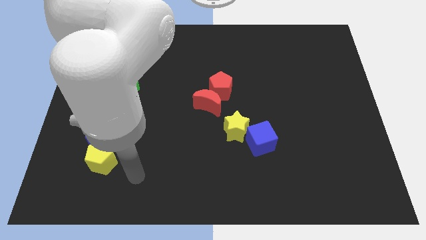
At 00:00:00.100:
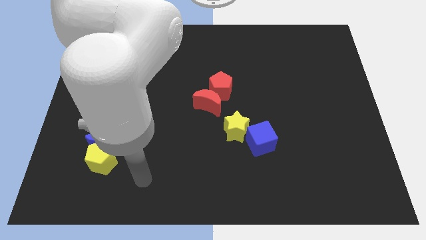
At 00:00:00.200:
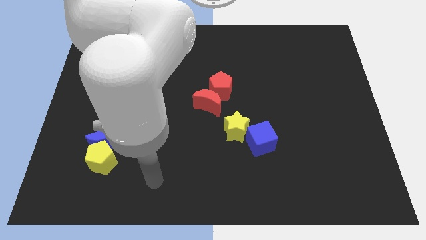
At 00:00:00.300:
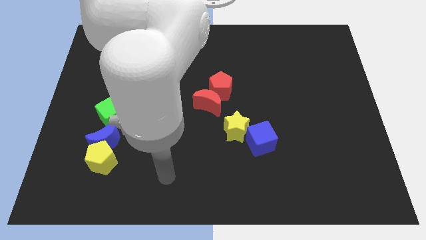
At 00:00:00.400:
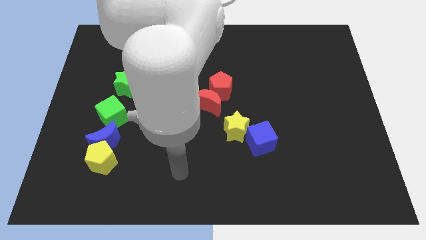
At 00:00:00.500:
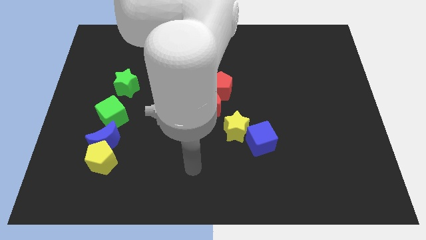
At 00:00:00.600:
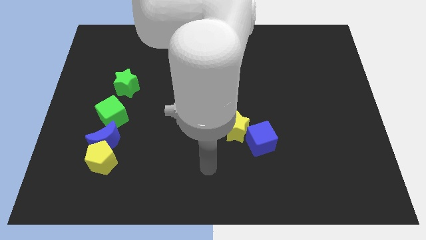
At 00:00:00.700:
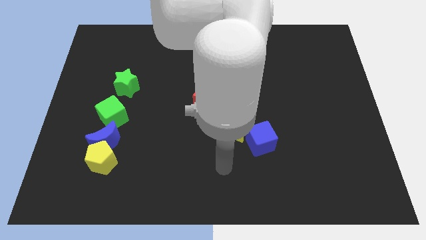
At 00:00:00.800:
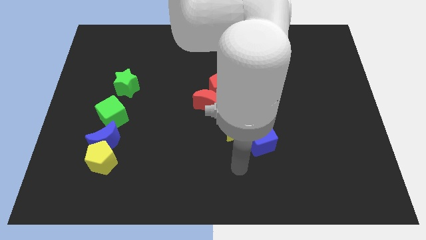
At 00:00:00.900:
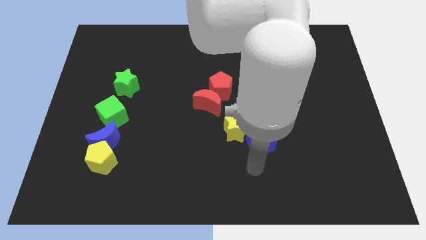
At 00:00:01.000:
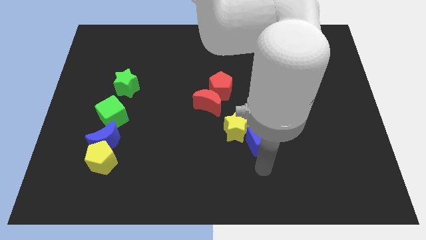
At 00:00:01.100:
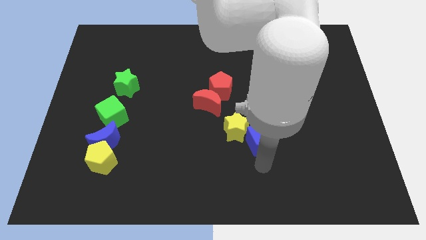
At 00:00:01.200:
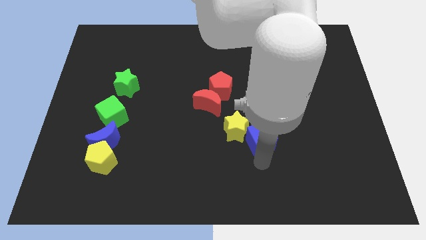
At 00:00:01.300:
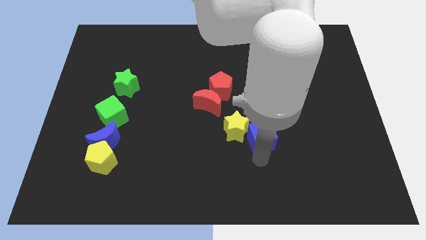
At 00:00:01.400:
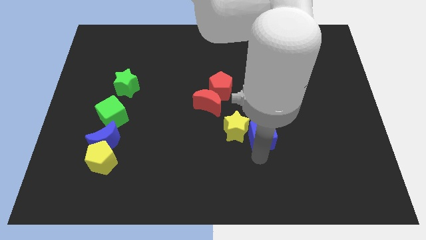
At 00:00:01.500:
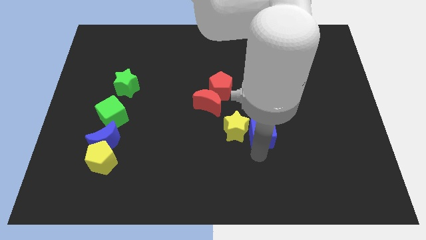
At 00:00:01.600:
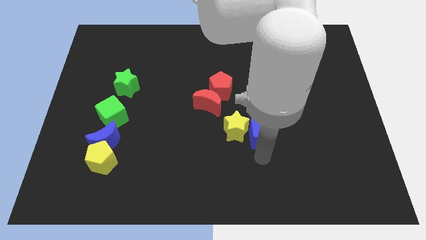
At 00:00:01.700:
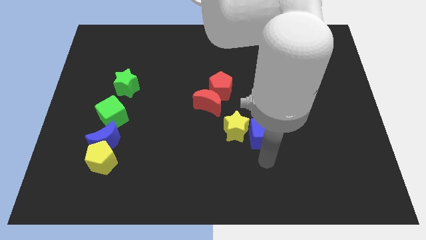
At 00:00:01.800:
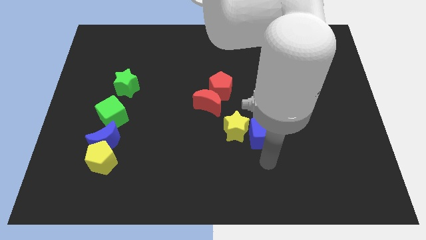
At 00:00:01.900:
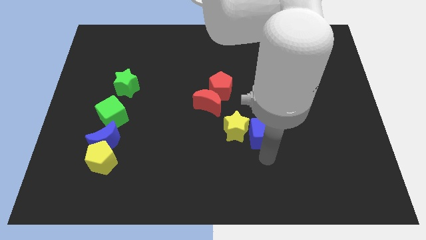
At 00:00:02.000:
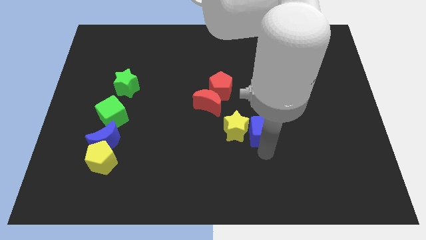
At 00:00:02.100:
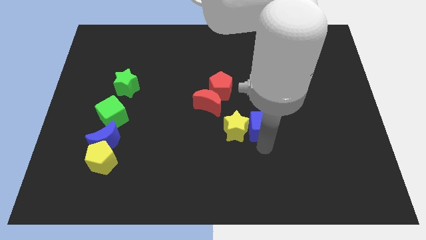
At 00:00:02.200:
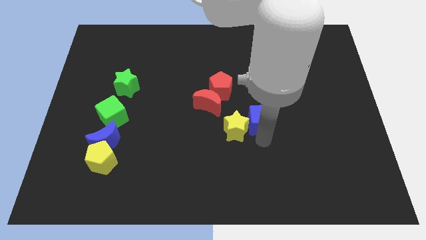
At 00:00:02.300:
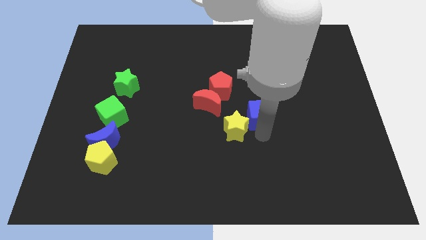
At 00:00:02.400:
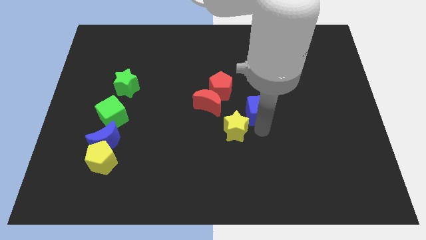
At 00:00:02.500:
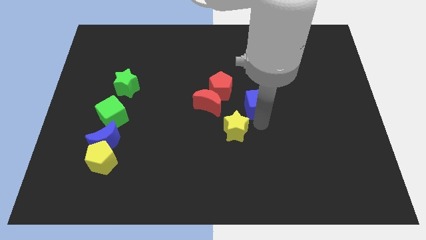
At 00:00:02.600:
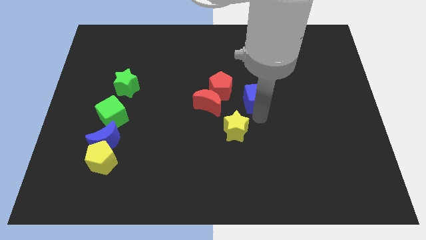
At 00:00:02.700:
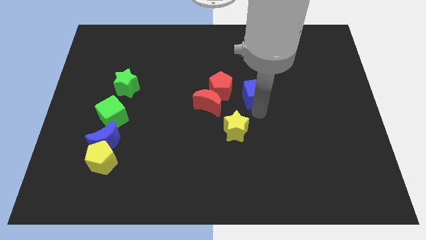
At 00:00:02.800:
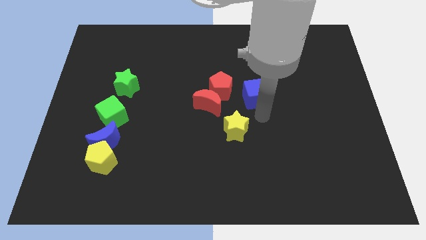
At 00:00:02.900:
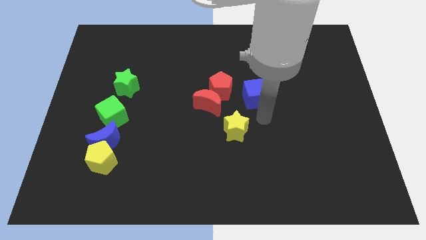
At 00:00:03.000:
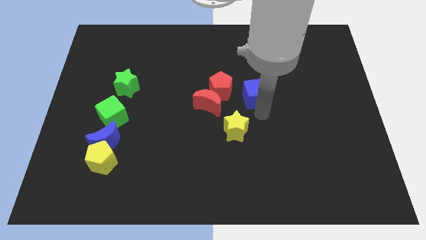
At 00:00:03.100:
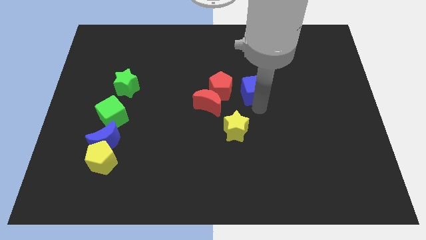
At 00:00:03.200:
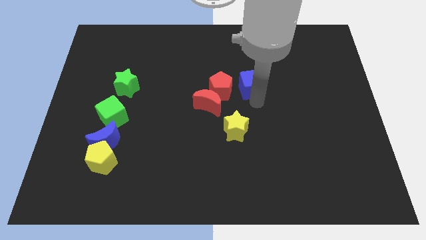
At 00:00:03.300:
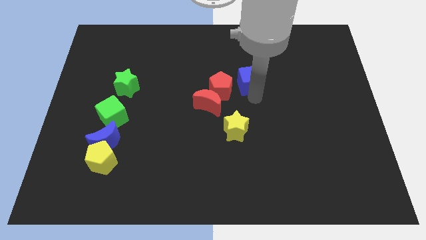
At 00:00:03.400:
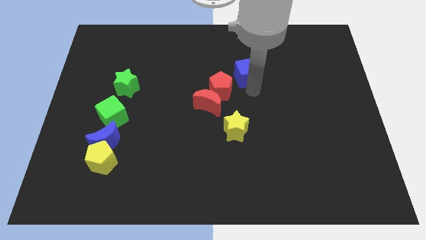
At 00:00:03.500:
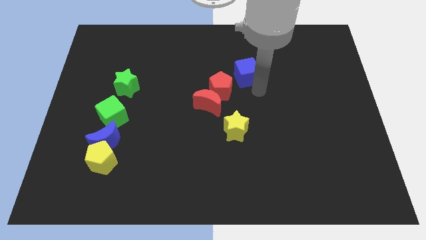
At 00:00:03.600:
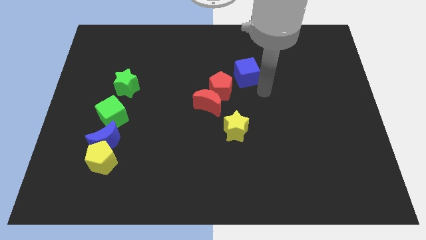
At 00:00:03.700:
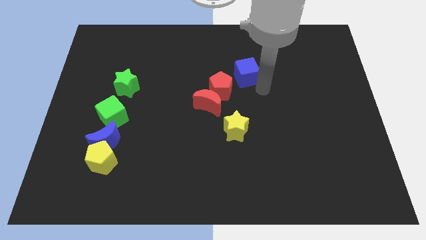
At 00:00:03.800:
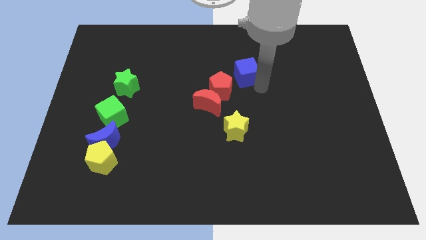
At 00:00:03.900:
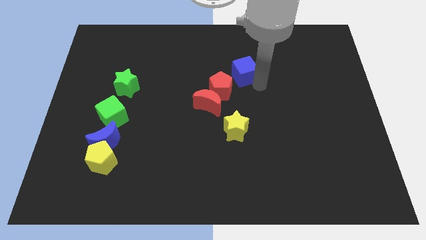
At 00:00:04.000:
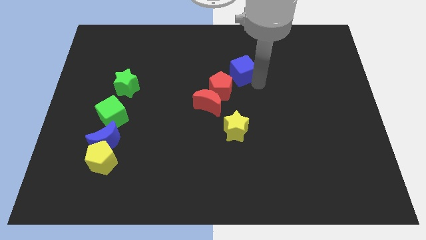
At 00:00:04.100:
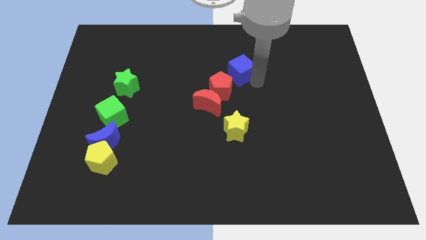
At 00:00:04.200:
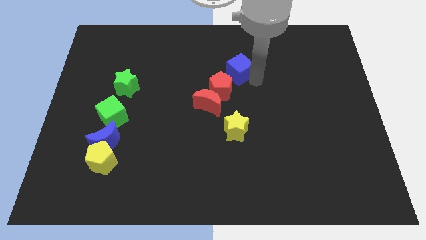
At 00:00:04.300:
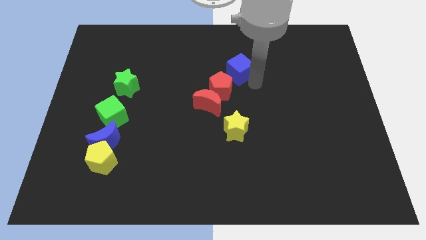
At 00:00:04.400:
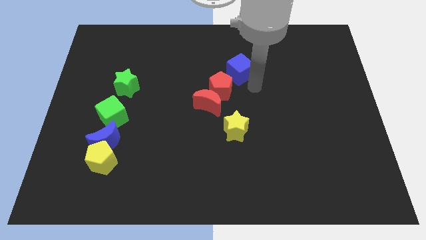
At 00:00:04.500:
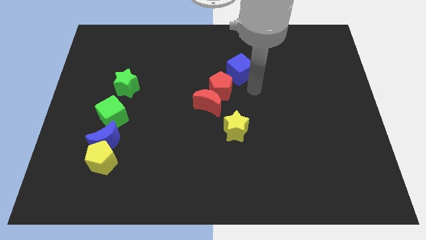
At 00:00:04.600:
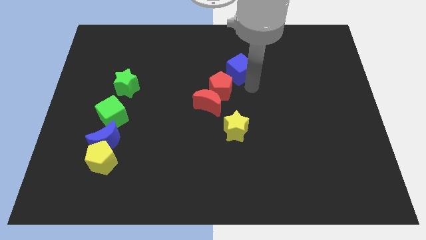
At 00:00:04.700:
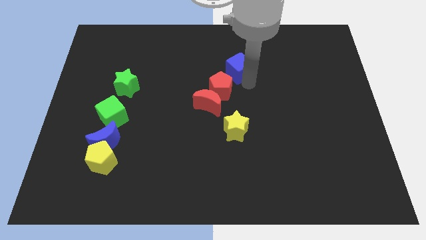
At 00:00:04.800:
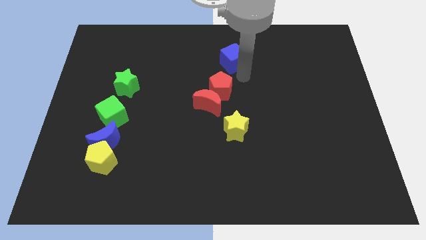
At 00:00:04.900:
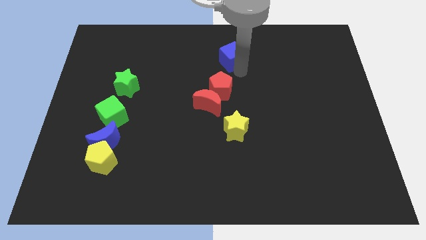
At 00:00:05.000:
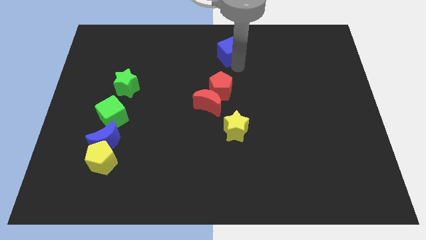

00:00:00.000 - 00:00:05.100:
slide the blue cube to the top side

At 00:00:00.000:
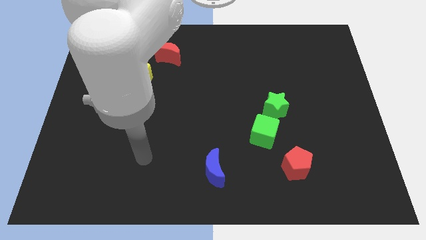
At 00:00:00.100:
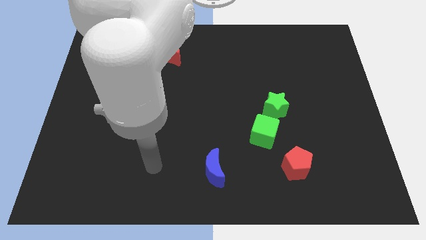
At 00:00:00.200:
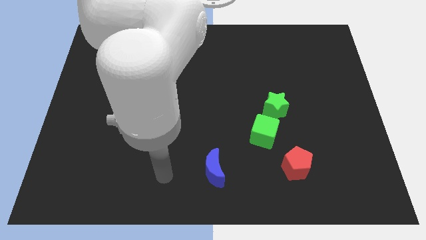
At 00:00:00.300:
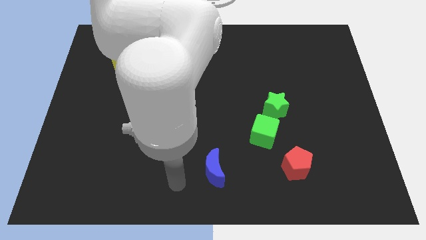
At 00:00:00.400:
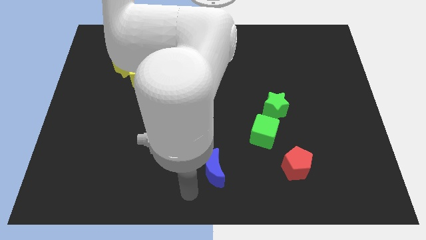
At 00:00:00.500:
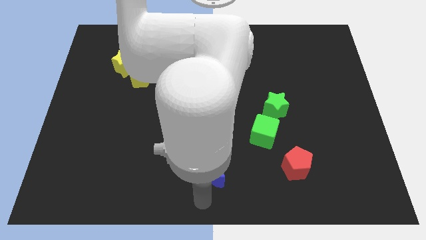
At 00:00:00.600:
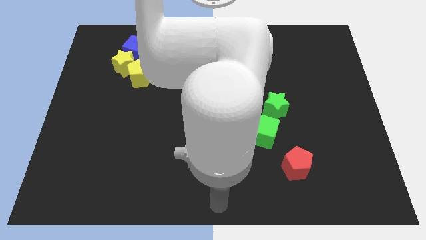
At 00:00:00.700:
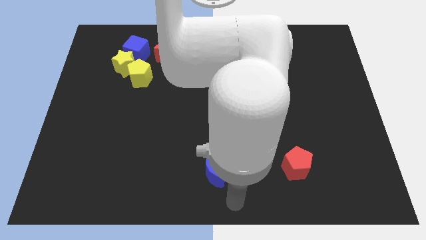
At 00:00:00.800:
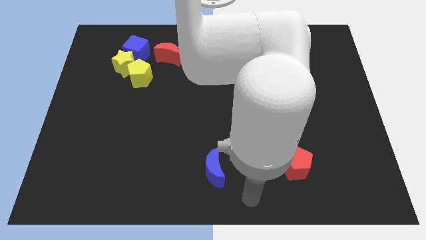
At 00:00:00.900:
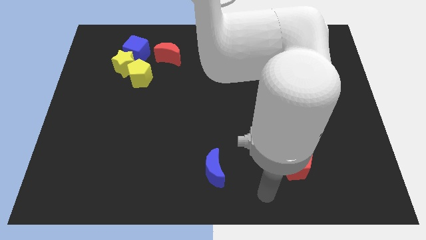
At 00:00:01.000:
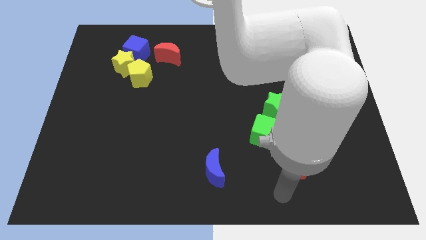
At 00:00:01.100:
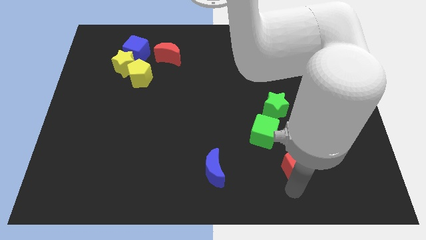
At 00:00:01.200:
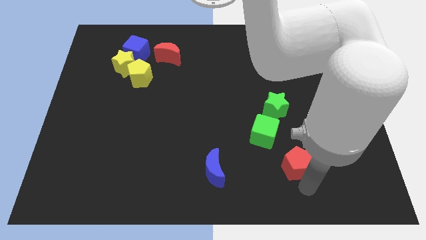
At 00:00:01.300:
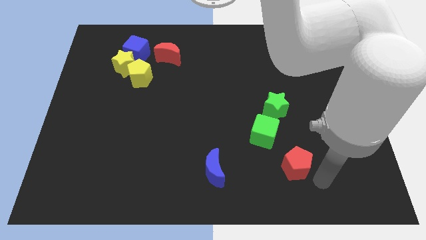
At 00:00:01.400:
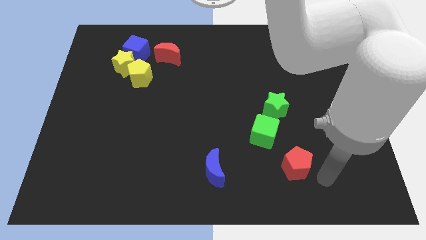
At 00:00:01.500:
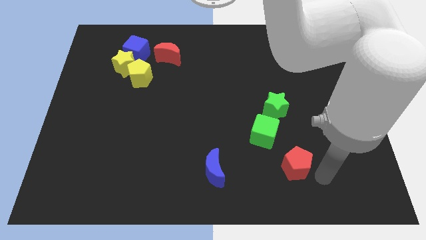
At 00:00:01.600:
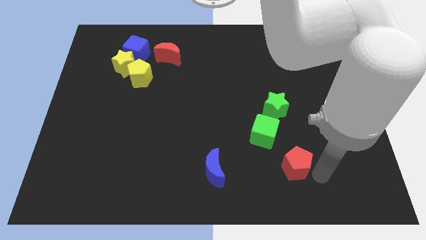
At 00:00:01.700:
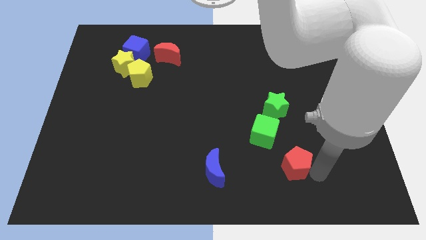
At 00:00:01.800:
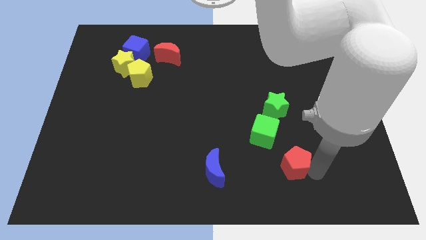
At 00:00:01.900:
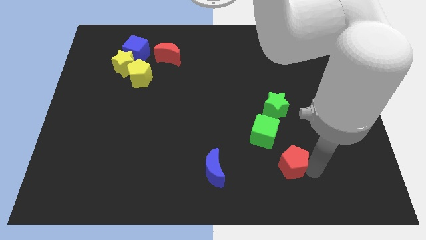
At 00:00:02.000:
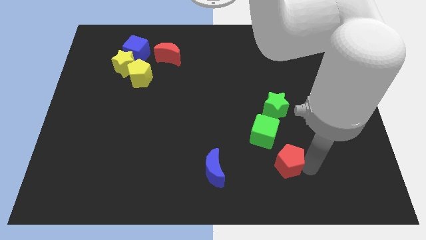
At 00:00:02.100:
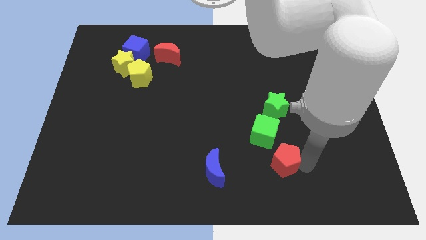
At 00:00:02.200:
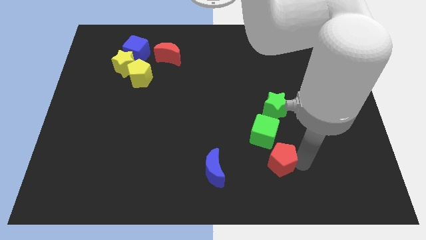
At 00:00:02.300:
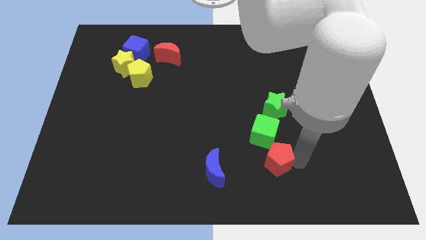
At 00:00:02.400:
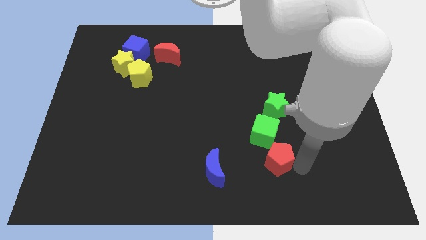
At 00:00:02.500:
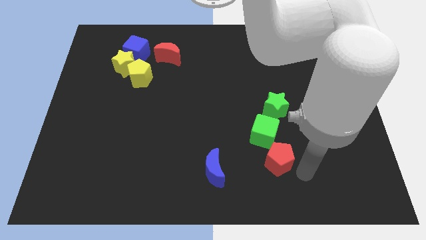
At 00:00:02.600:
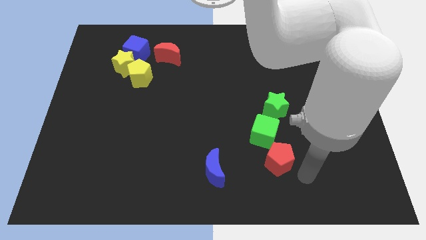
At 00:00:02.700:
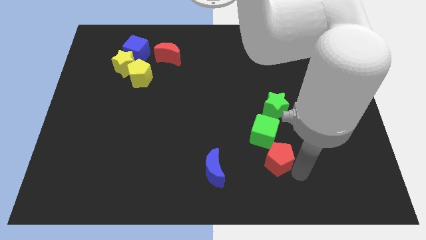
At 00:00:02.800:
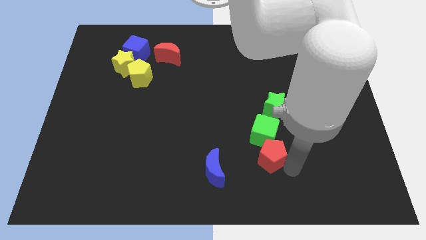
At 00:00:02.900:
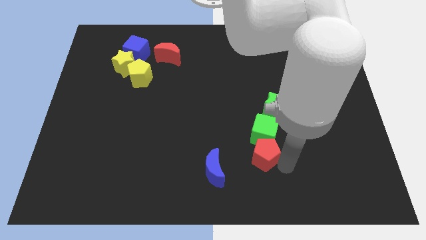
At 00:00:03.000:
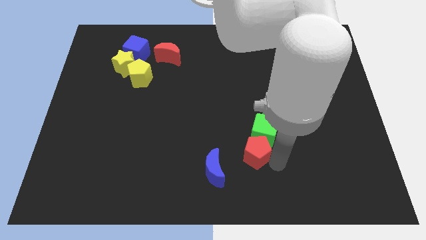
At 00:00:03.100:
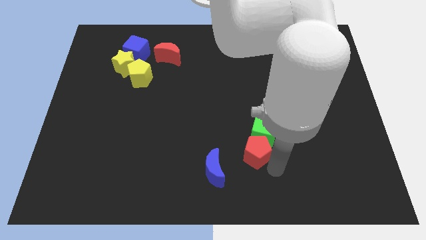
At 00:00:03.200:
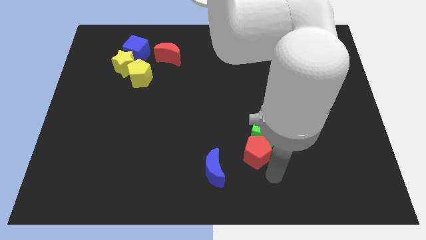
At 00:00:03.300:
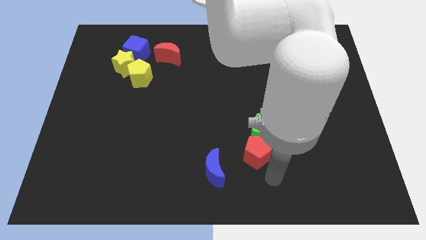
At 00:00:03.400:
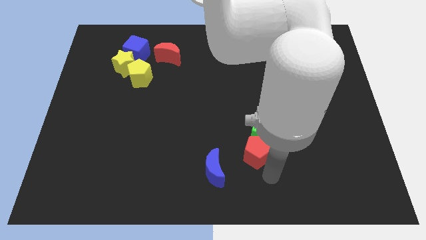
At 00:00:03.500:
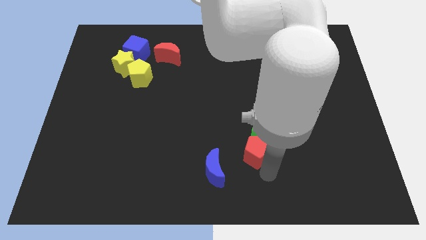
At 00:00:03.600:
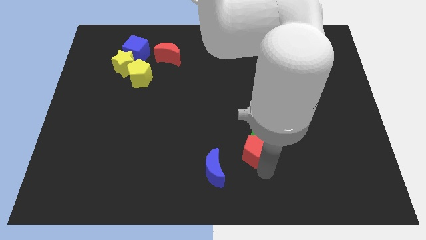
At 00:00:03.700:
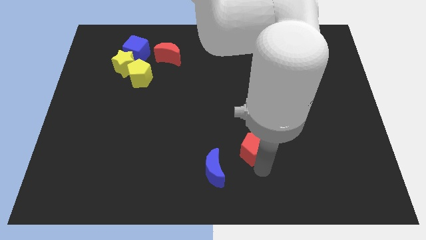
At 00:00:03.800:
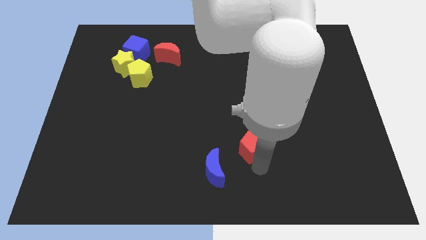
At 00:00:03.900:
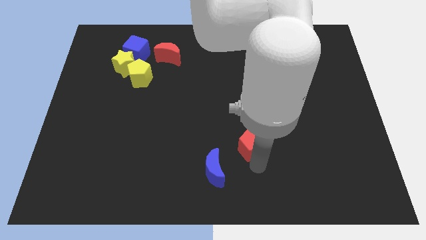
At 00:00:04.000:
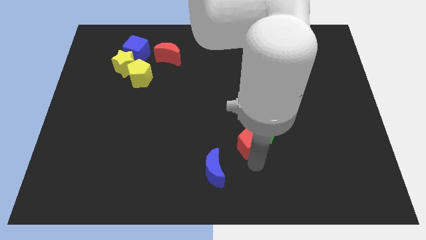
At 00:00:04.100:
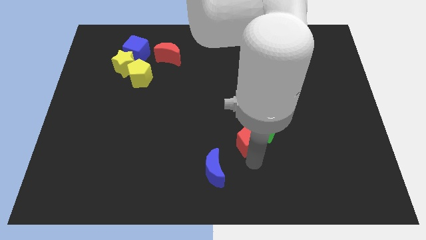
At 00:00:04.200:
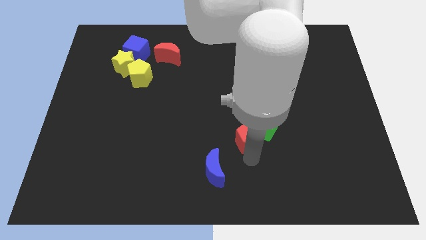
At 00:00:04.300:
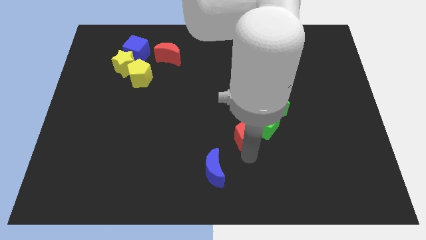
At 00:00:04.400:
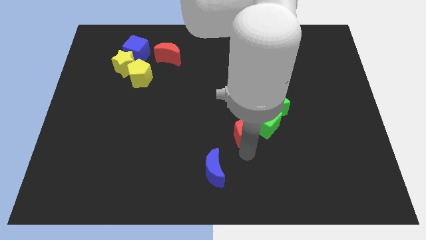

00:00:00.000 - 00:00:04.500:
push the red pentagon to the center of the board
